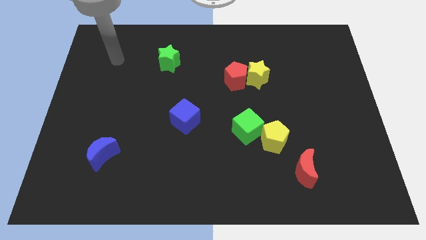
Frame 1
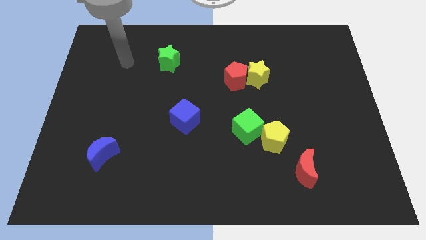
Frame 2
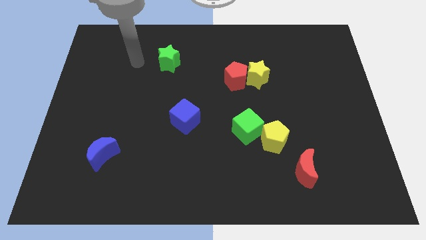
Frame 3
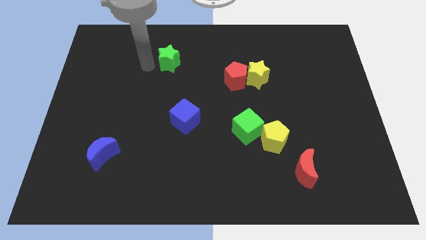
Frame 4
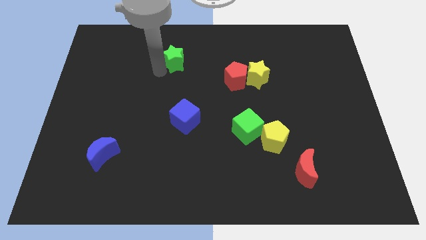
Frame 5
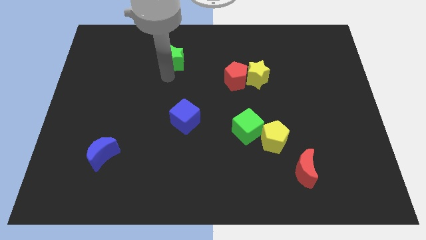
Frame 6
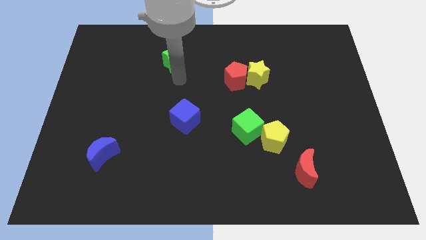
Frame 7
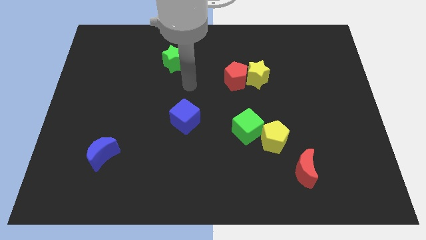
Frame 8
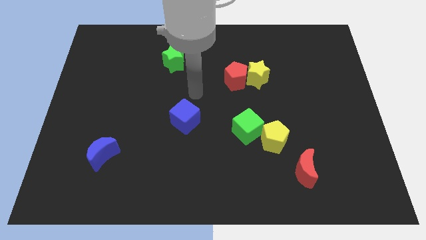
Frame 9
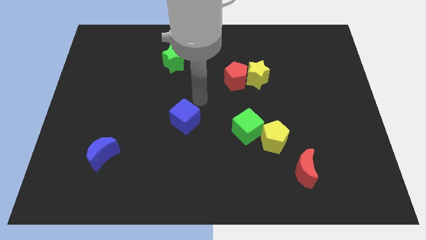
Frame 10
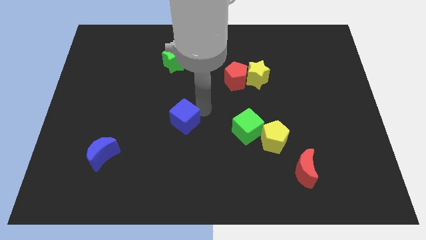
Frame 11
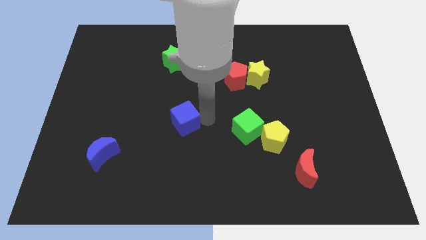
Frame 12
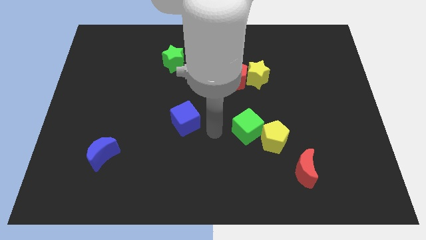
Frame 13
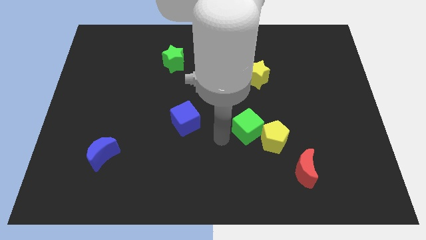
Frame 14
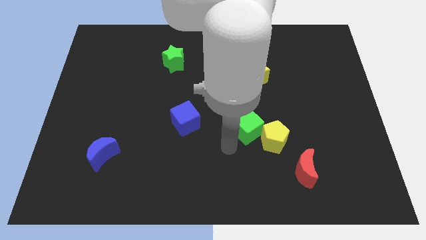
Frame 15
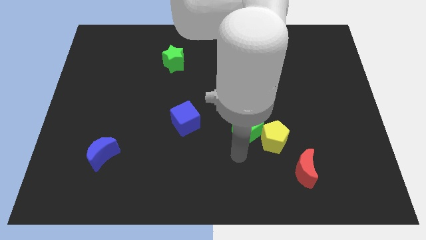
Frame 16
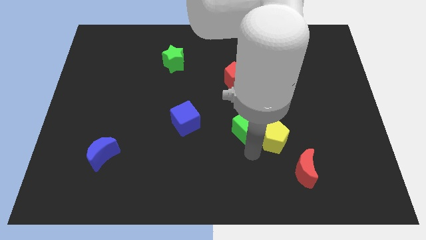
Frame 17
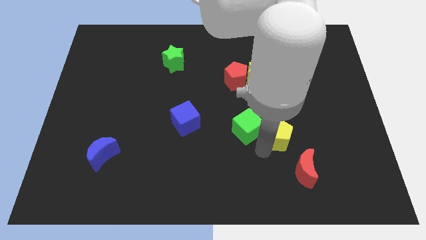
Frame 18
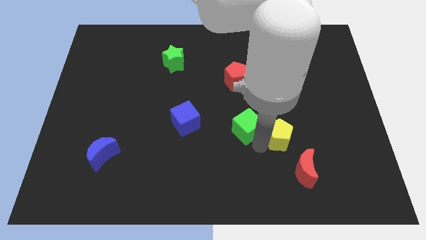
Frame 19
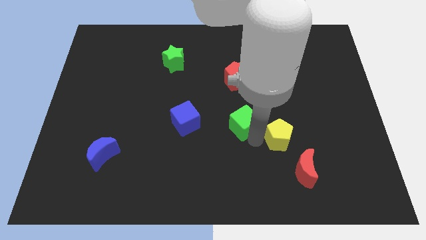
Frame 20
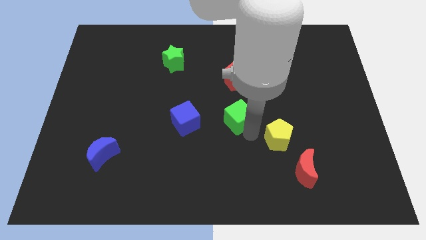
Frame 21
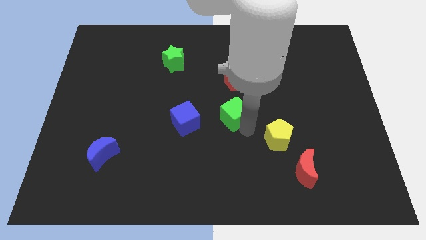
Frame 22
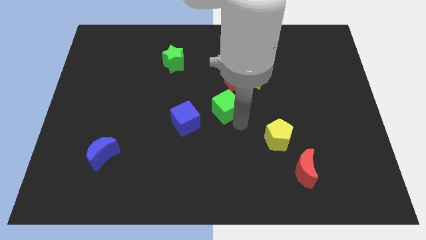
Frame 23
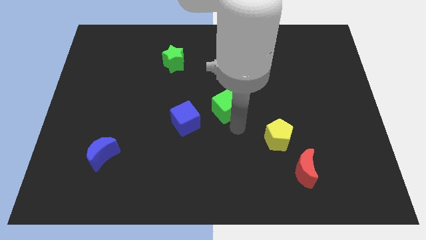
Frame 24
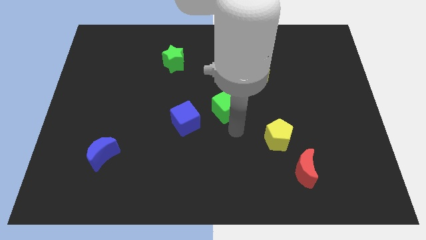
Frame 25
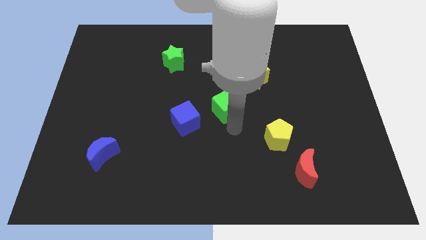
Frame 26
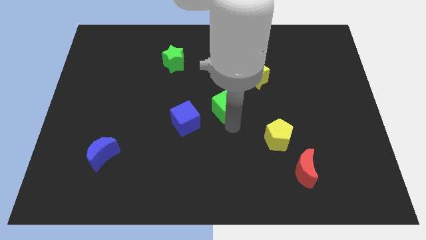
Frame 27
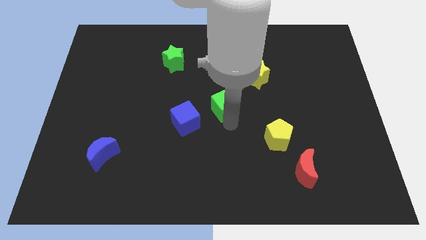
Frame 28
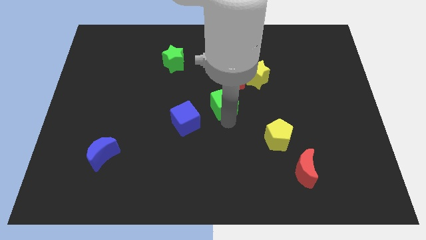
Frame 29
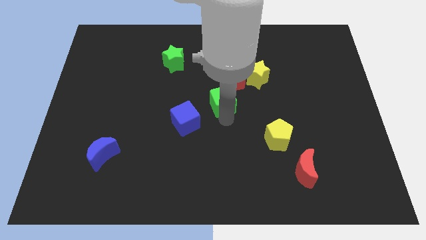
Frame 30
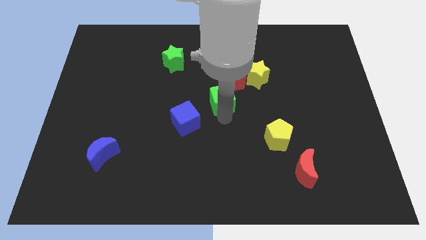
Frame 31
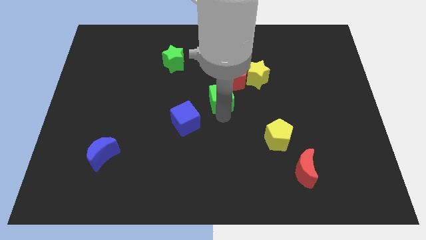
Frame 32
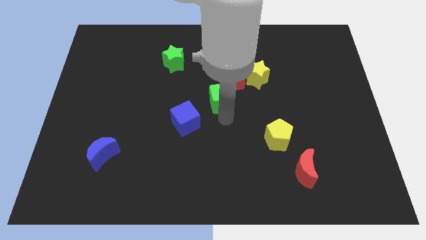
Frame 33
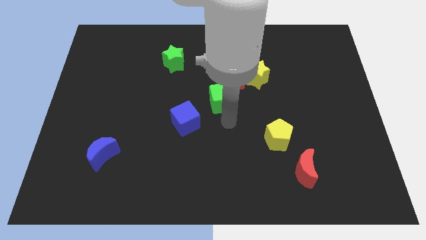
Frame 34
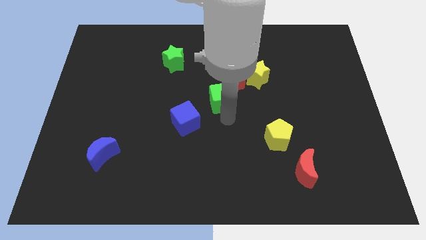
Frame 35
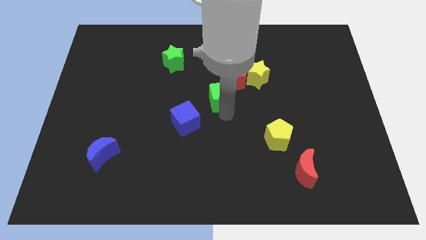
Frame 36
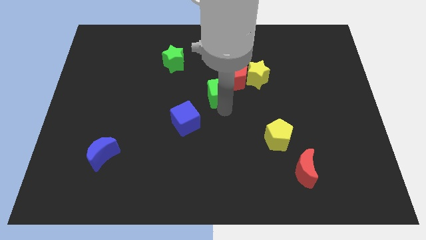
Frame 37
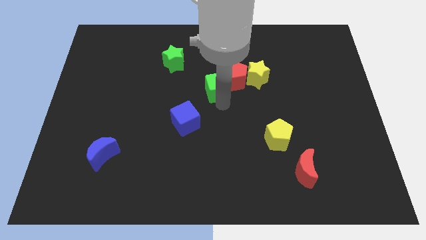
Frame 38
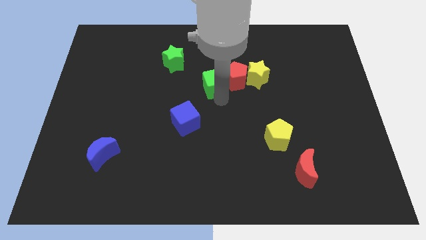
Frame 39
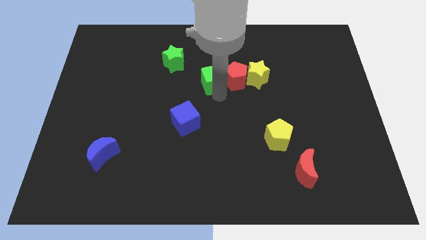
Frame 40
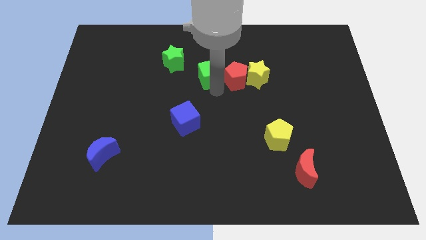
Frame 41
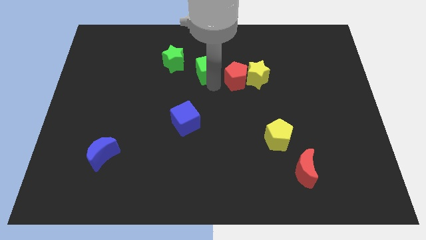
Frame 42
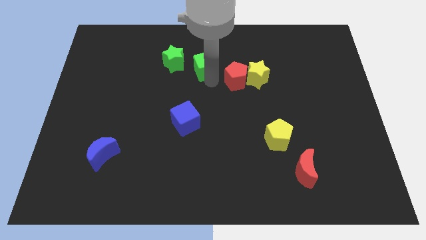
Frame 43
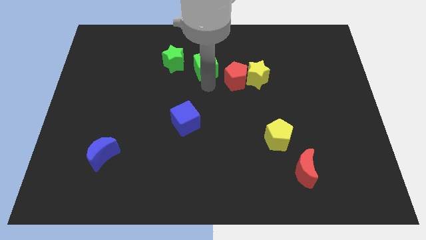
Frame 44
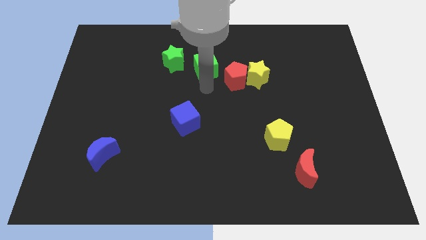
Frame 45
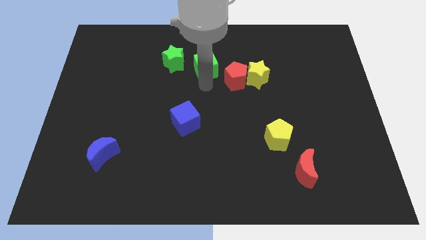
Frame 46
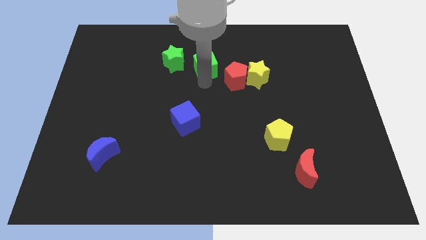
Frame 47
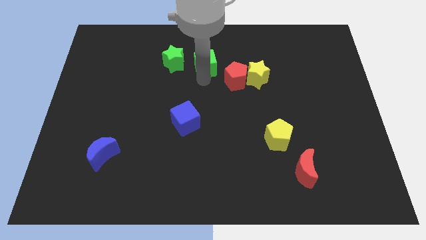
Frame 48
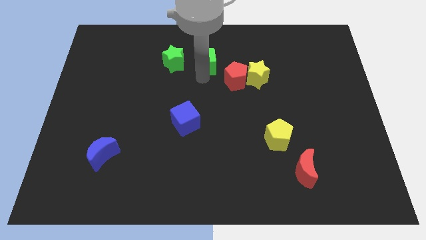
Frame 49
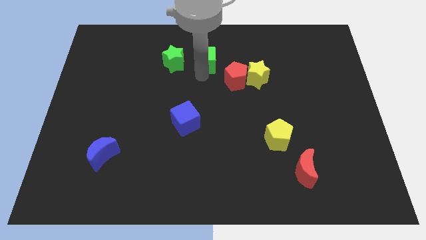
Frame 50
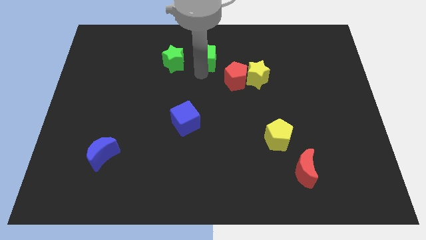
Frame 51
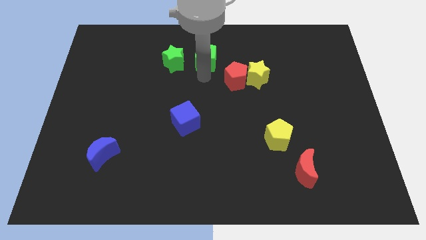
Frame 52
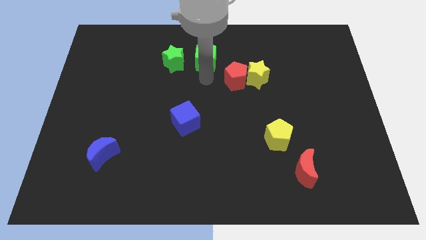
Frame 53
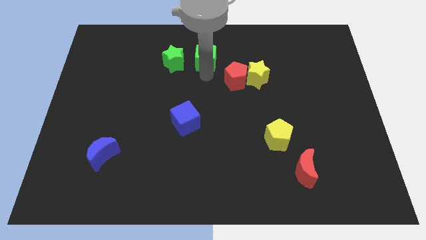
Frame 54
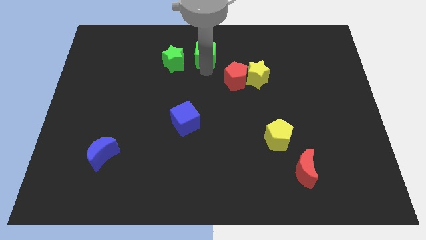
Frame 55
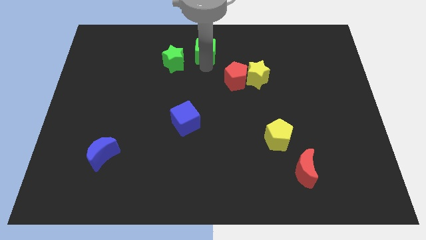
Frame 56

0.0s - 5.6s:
push the green cube to the top

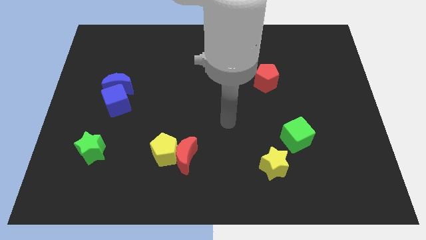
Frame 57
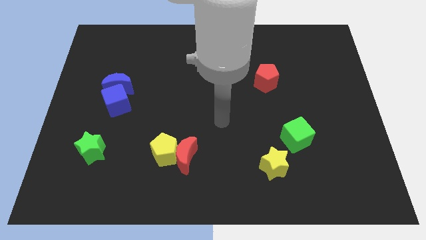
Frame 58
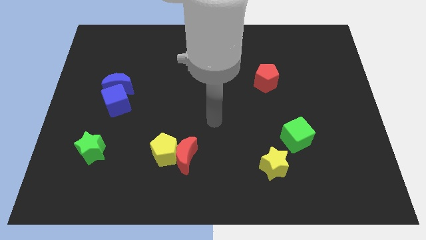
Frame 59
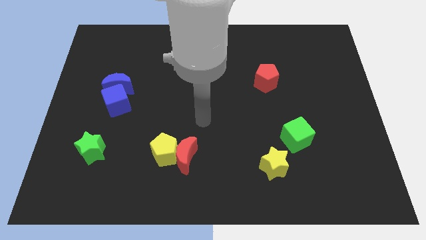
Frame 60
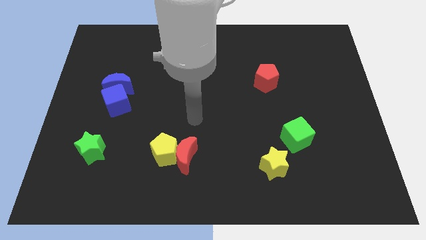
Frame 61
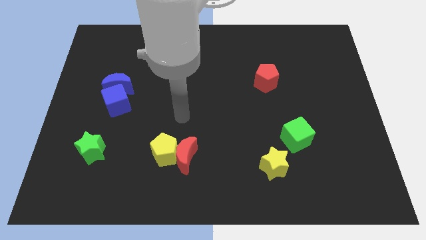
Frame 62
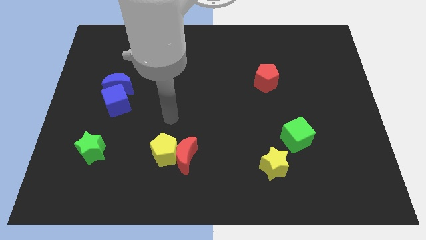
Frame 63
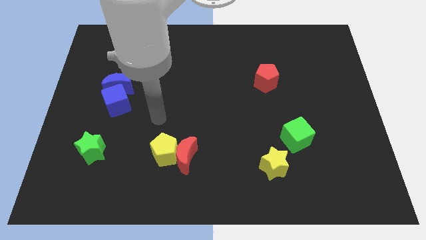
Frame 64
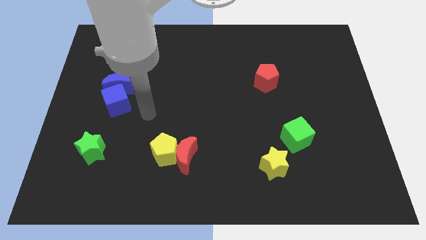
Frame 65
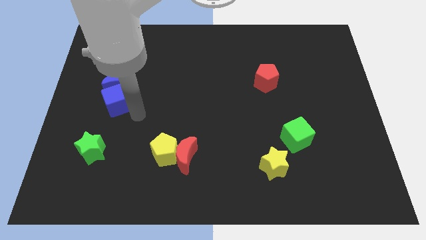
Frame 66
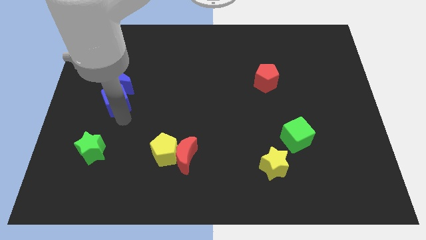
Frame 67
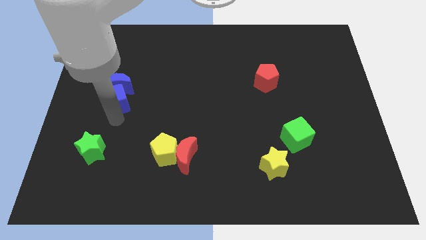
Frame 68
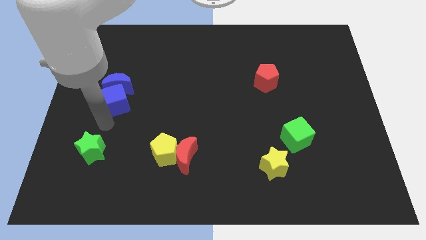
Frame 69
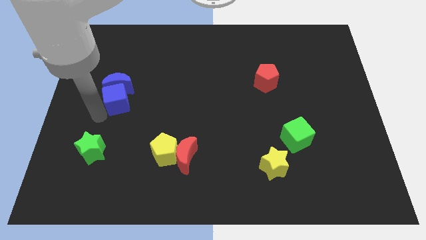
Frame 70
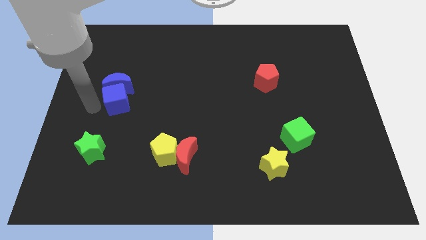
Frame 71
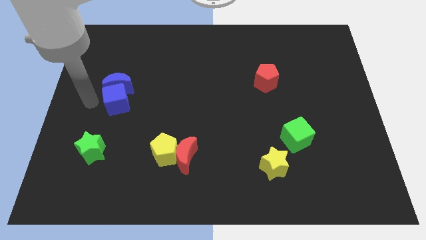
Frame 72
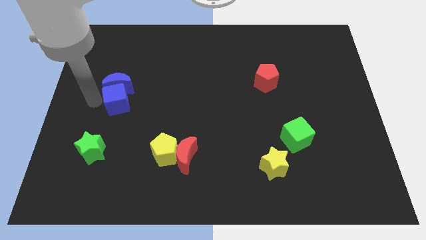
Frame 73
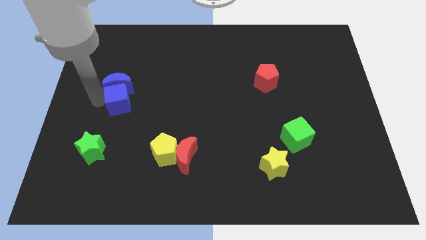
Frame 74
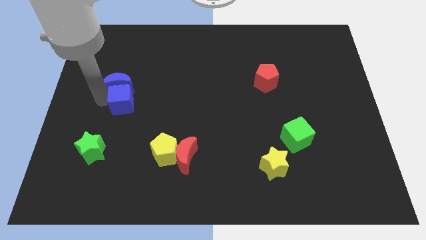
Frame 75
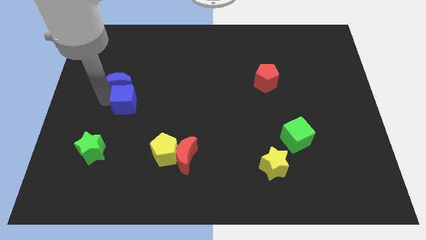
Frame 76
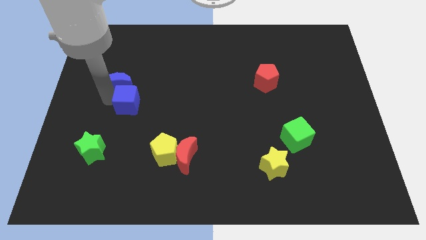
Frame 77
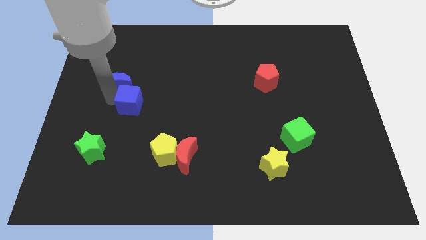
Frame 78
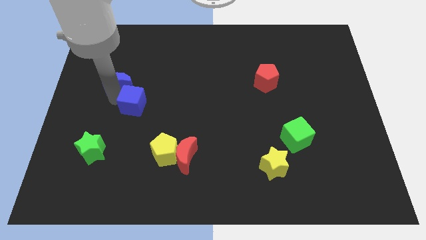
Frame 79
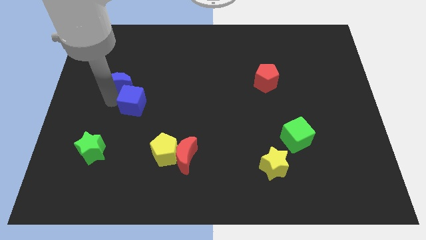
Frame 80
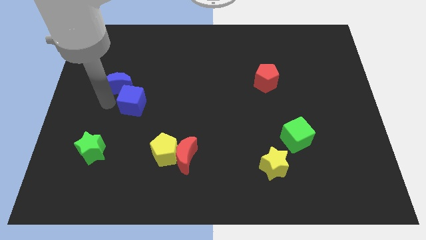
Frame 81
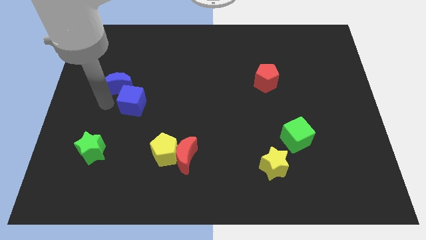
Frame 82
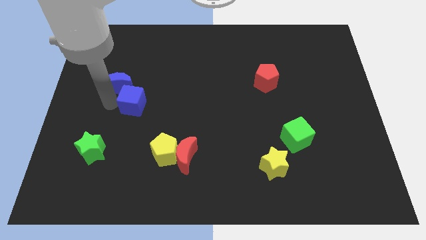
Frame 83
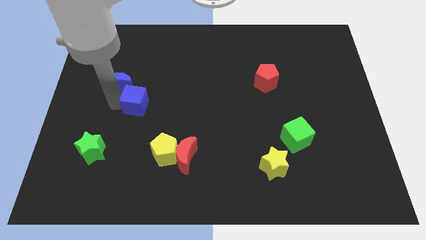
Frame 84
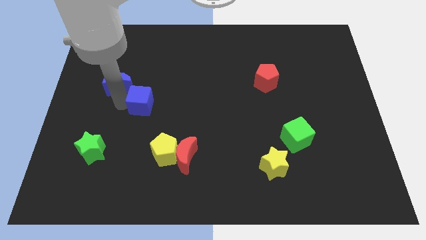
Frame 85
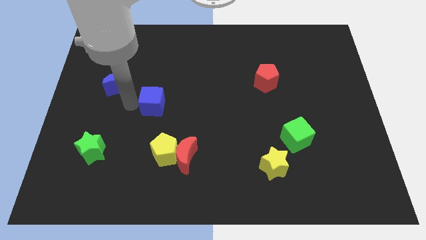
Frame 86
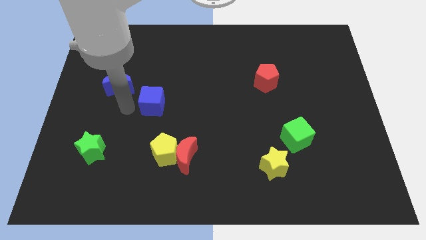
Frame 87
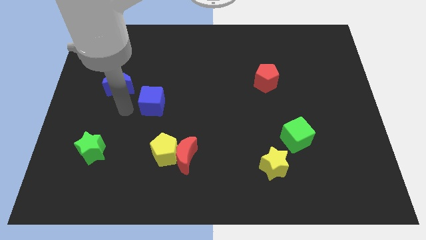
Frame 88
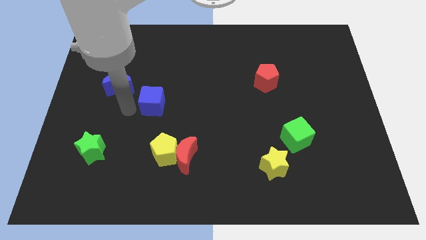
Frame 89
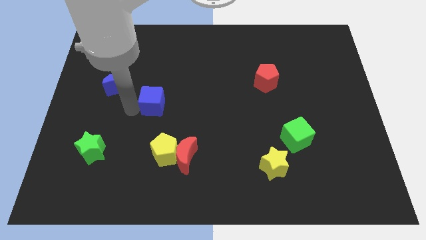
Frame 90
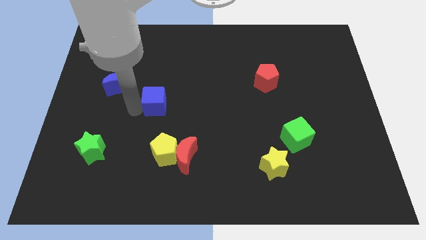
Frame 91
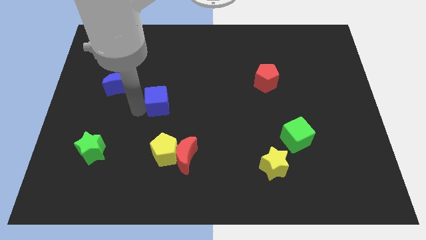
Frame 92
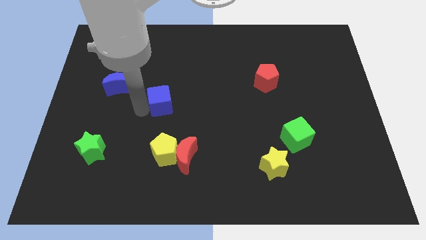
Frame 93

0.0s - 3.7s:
slide the blue cube to the middle of the board
